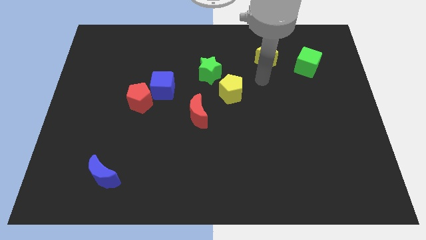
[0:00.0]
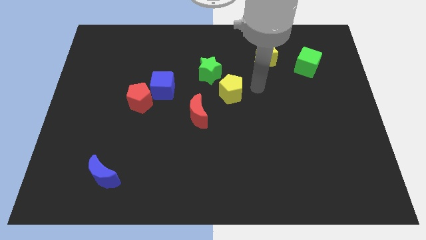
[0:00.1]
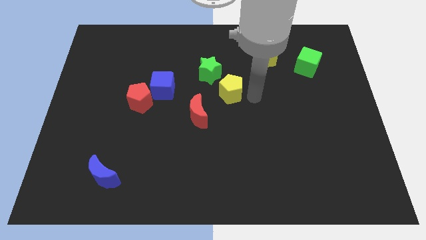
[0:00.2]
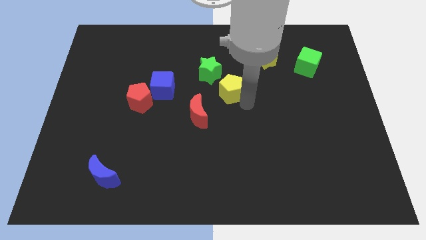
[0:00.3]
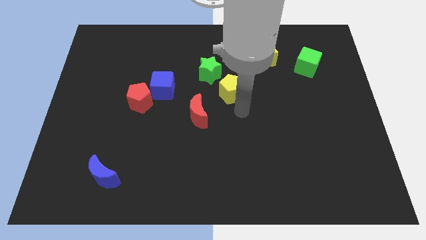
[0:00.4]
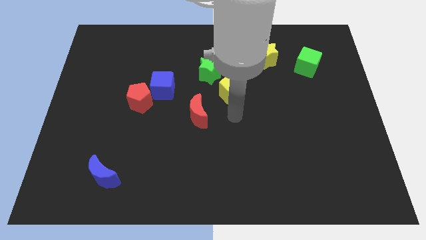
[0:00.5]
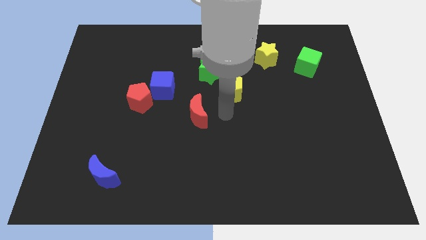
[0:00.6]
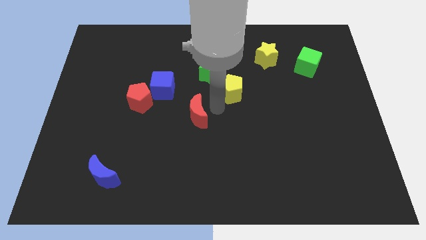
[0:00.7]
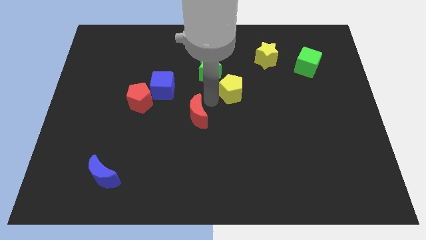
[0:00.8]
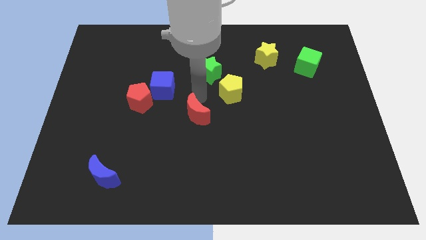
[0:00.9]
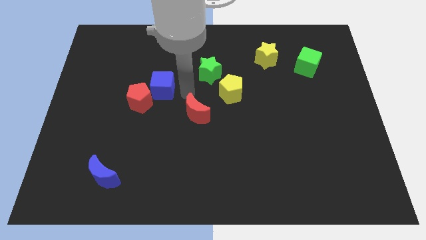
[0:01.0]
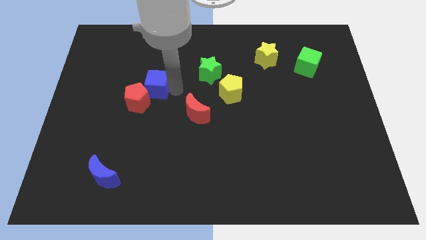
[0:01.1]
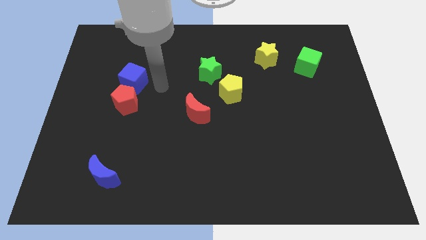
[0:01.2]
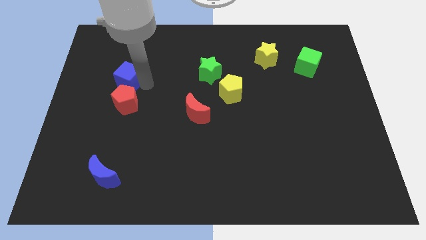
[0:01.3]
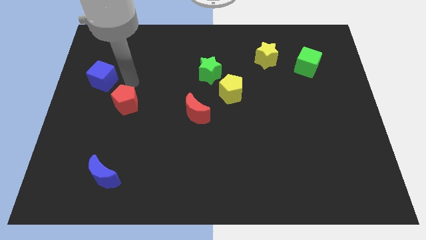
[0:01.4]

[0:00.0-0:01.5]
pull the red pentagon apart from the blue cube

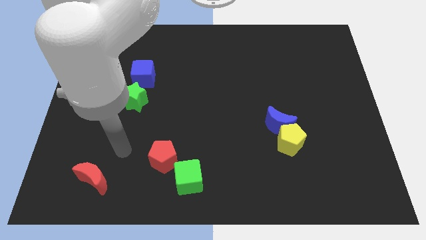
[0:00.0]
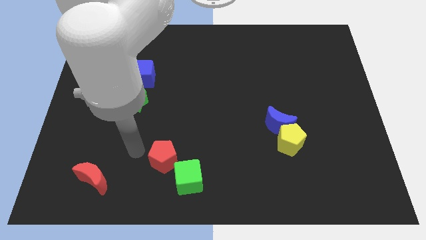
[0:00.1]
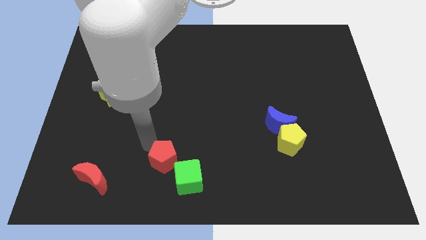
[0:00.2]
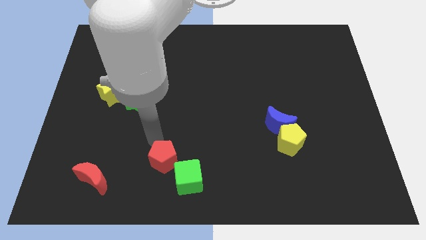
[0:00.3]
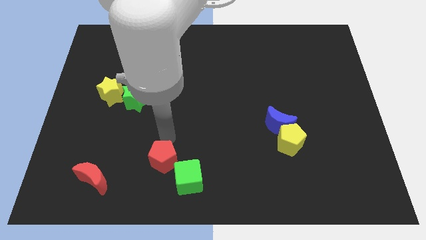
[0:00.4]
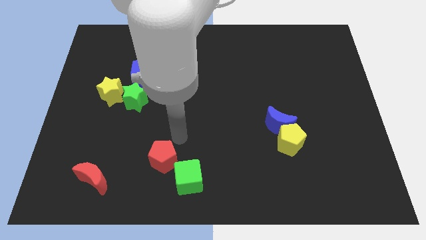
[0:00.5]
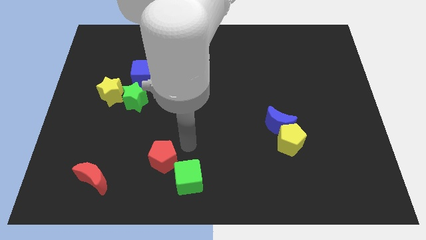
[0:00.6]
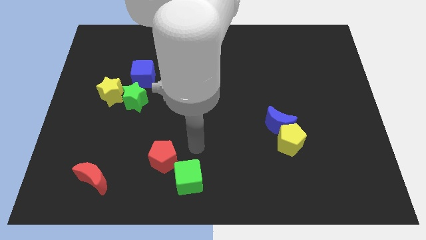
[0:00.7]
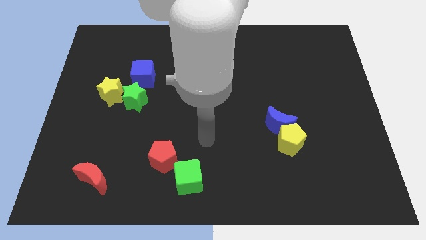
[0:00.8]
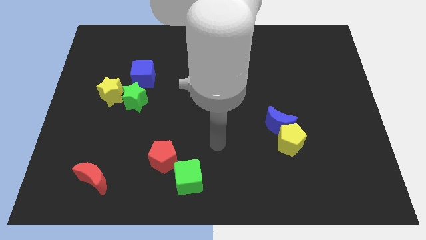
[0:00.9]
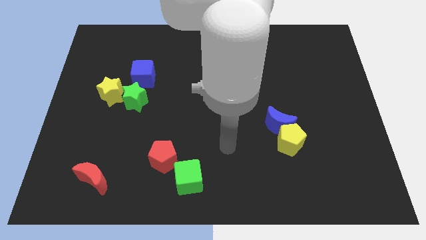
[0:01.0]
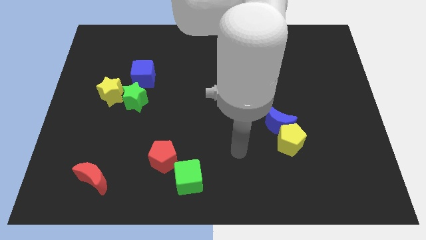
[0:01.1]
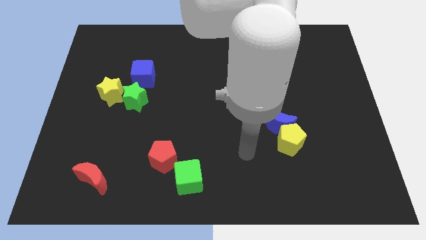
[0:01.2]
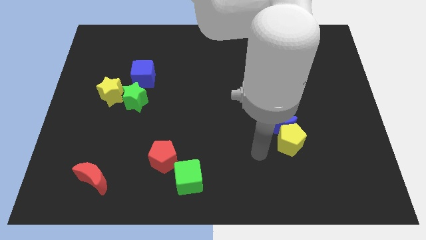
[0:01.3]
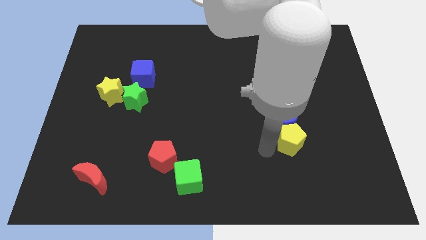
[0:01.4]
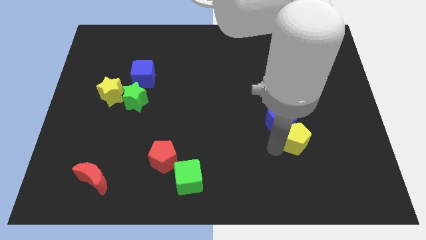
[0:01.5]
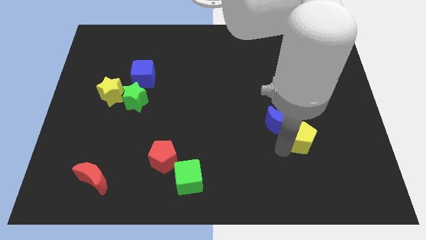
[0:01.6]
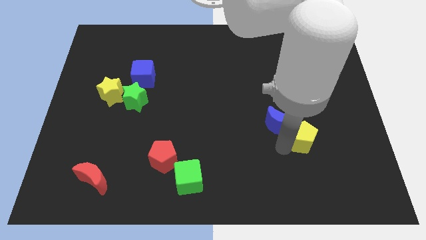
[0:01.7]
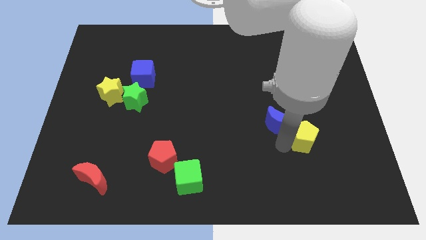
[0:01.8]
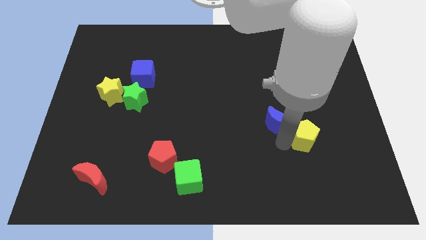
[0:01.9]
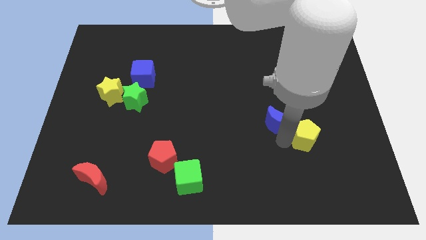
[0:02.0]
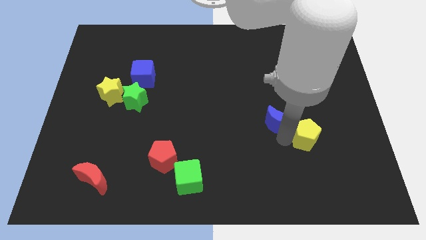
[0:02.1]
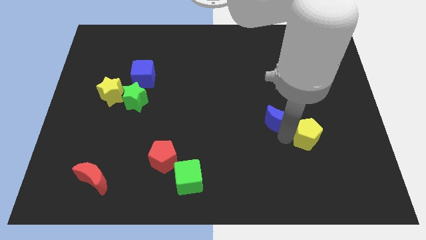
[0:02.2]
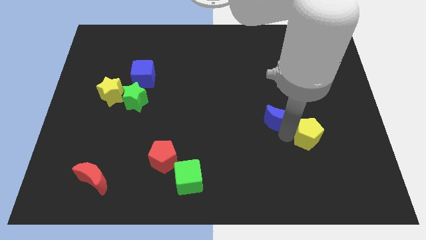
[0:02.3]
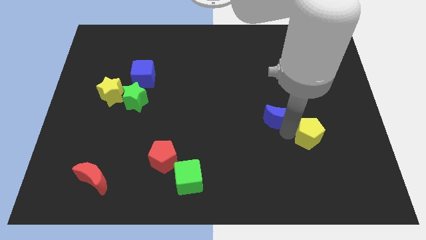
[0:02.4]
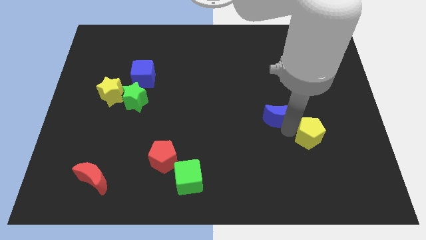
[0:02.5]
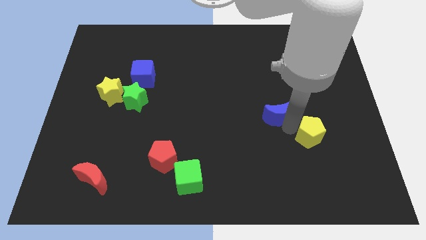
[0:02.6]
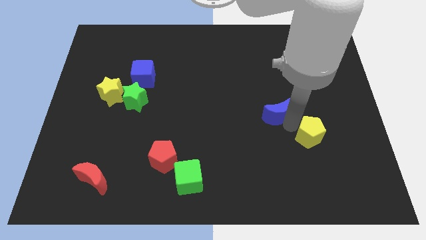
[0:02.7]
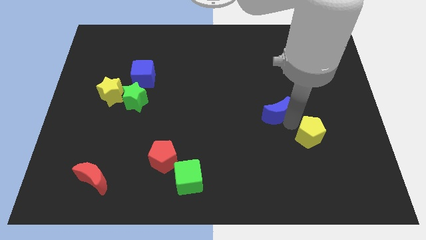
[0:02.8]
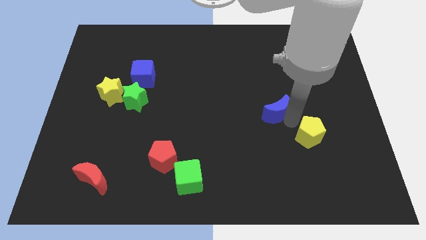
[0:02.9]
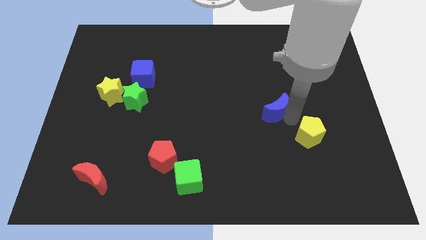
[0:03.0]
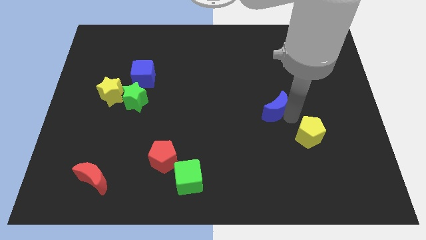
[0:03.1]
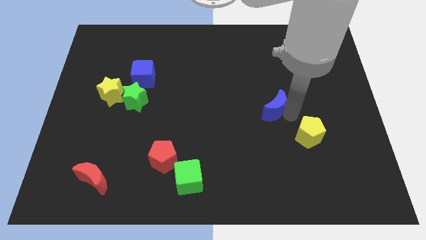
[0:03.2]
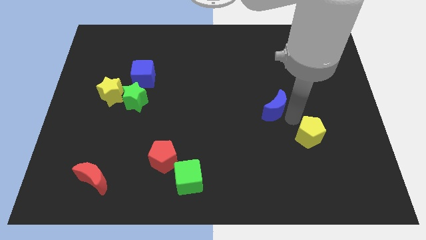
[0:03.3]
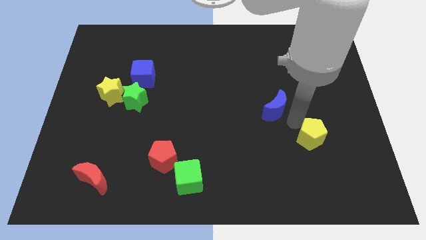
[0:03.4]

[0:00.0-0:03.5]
pull the blue moon apart from the yellow pentagon

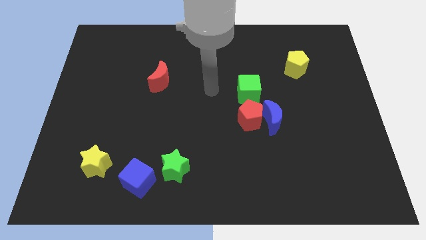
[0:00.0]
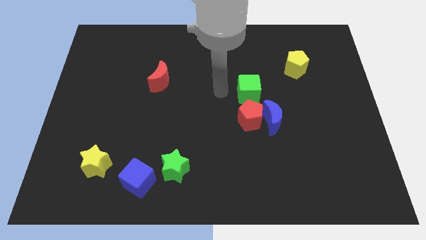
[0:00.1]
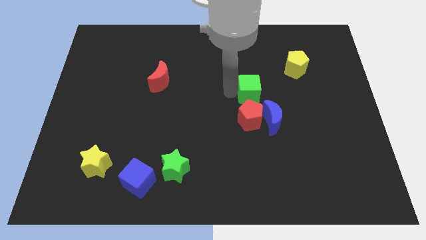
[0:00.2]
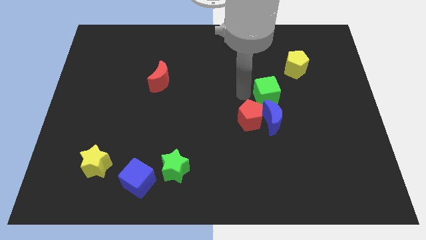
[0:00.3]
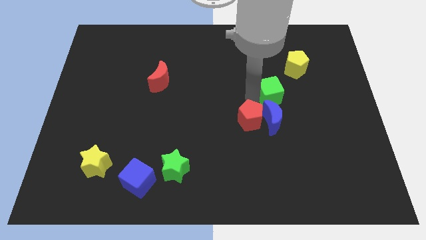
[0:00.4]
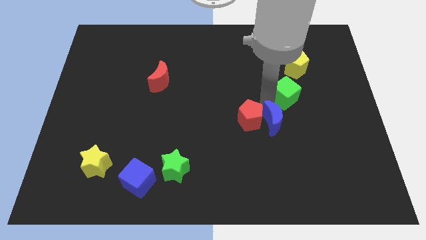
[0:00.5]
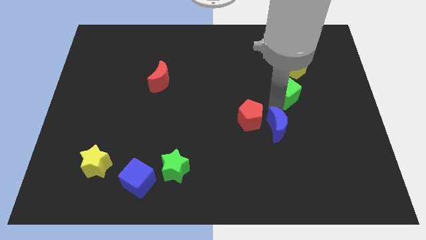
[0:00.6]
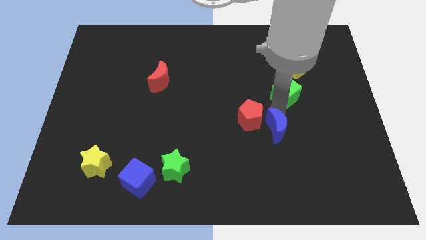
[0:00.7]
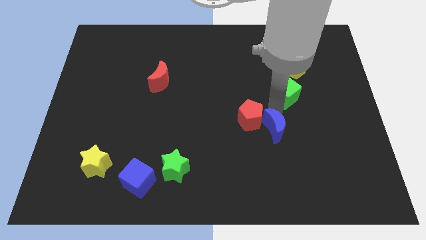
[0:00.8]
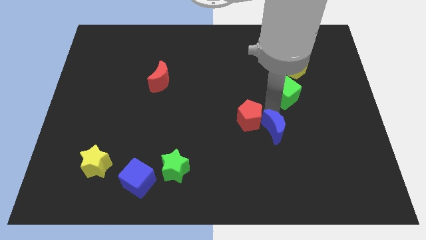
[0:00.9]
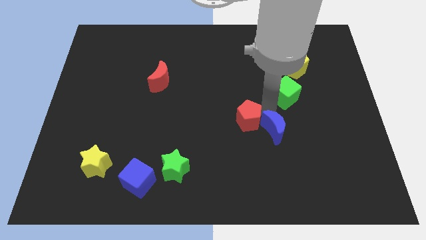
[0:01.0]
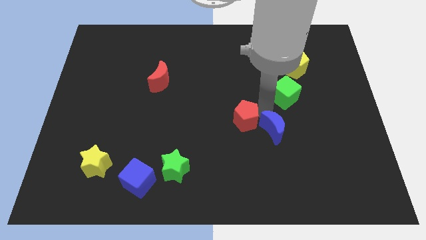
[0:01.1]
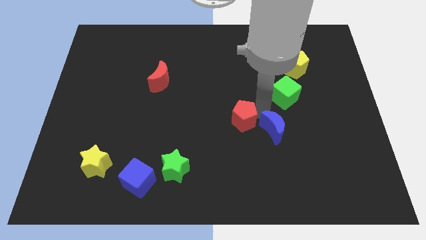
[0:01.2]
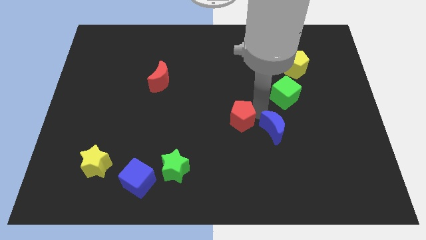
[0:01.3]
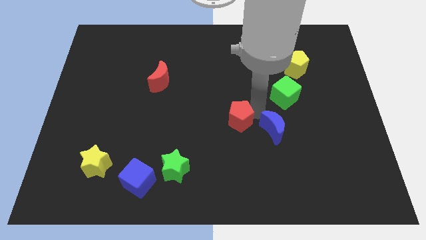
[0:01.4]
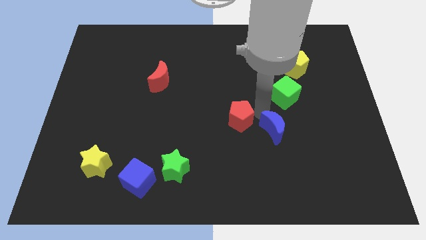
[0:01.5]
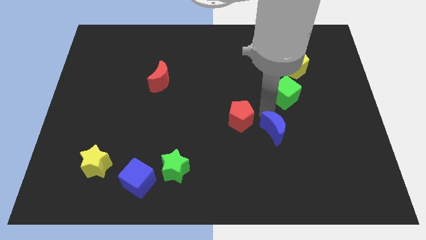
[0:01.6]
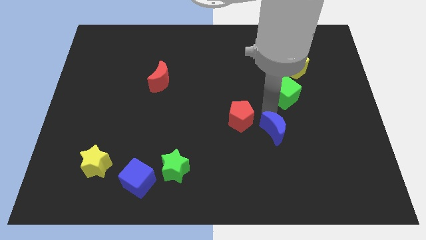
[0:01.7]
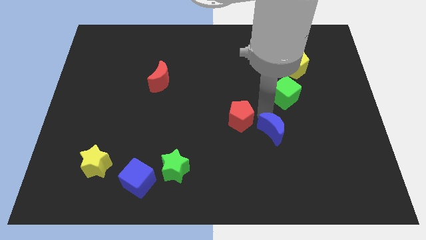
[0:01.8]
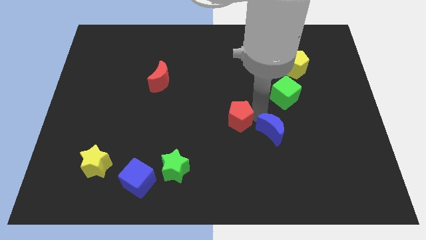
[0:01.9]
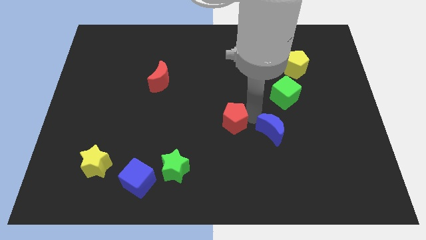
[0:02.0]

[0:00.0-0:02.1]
pull the red pentagon apart from the blue moon and green cube

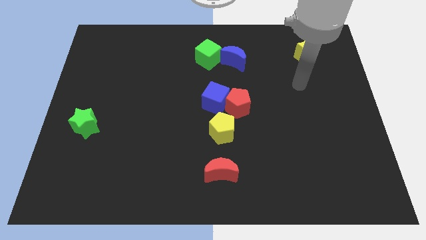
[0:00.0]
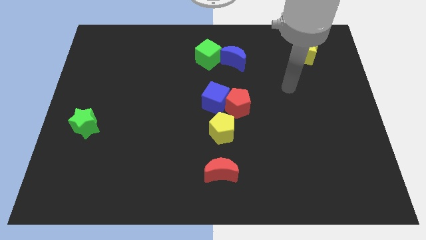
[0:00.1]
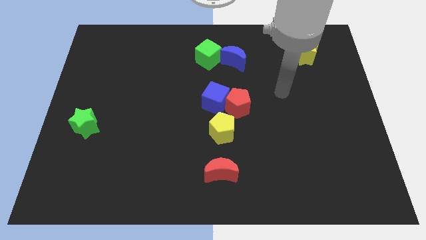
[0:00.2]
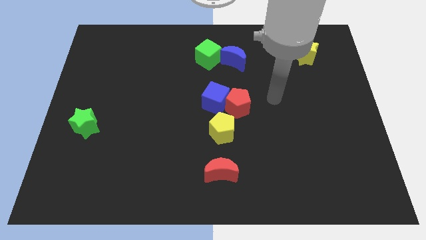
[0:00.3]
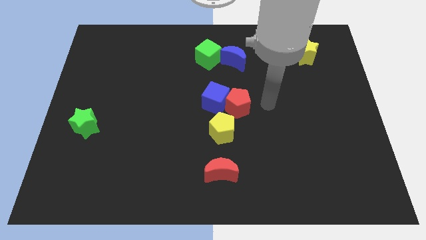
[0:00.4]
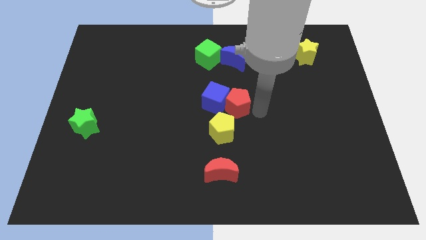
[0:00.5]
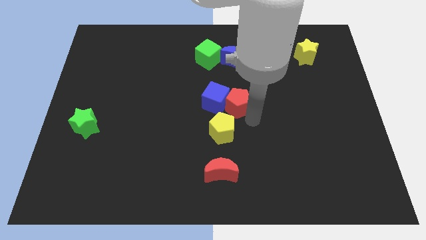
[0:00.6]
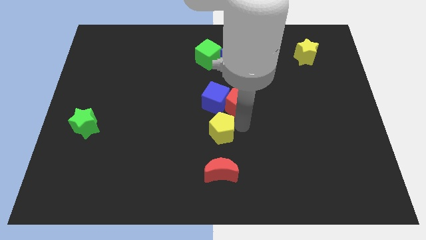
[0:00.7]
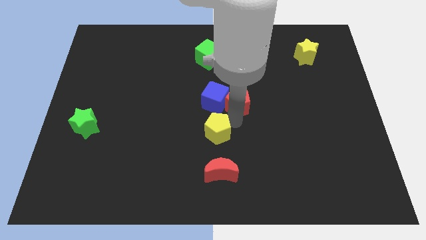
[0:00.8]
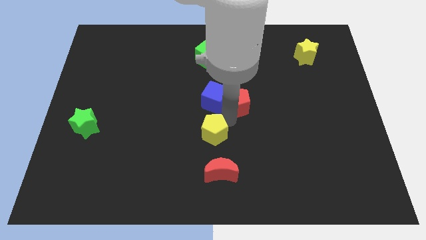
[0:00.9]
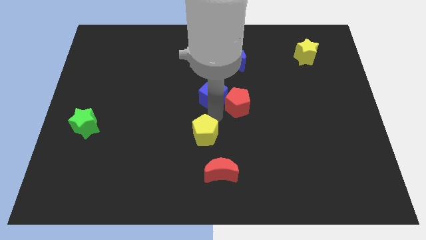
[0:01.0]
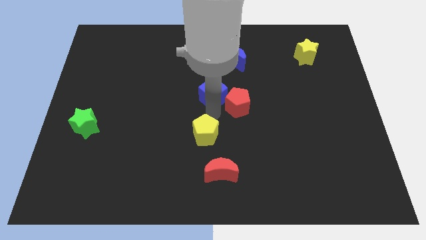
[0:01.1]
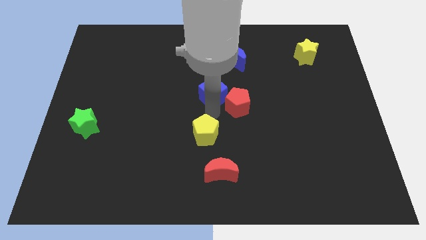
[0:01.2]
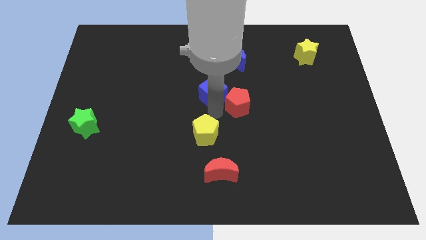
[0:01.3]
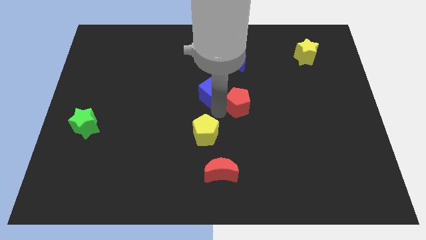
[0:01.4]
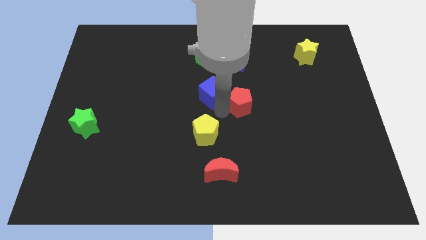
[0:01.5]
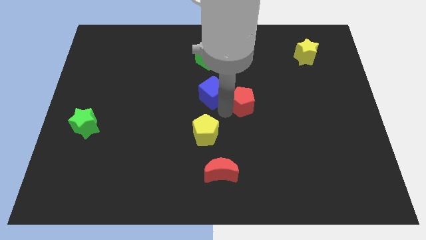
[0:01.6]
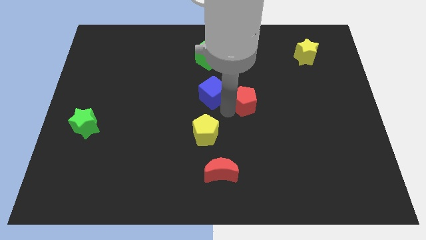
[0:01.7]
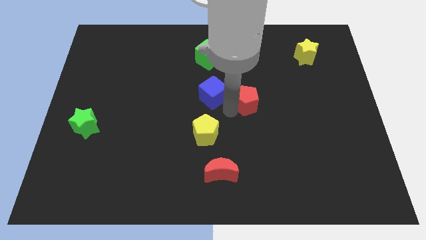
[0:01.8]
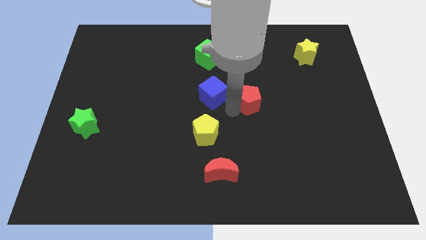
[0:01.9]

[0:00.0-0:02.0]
move the red pentagon away from the blue cube and yellow pentagon

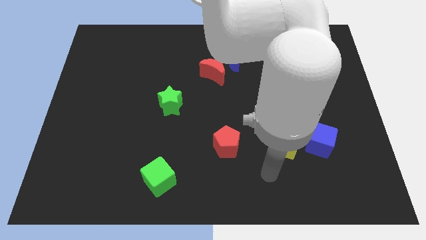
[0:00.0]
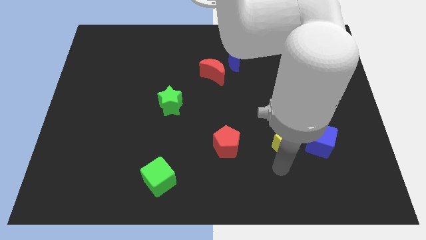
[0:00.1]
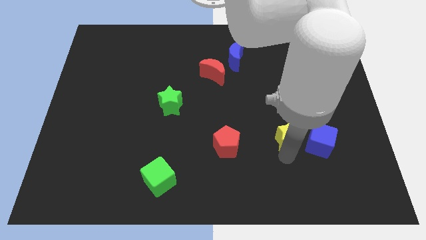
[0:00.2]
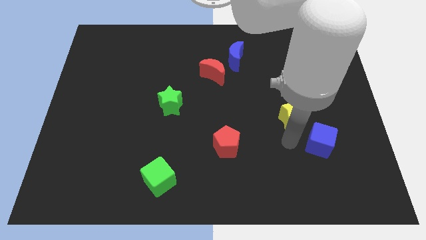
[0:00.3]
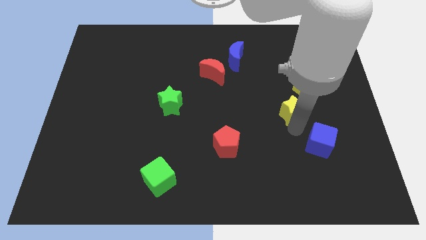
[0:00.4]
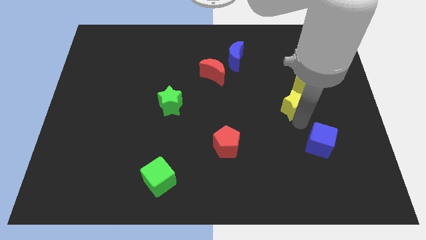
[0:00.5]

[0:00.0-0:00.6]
move the blue cube away from the yellow star
